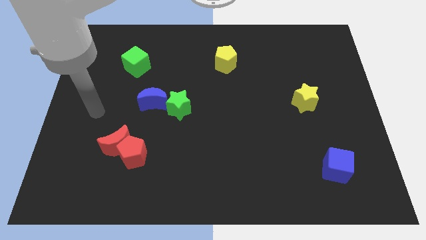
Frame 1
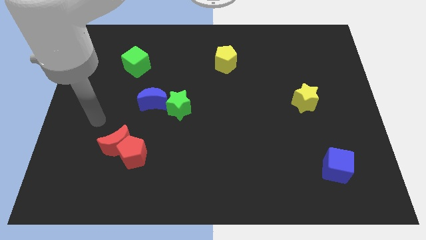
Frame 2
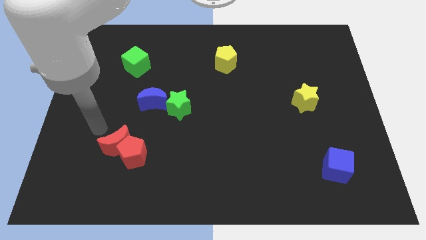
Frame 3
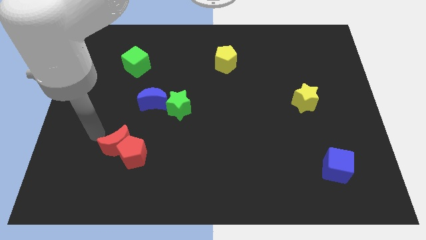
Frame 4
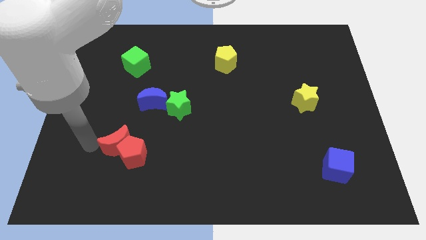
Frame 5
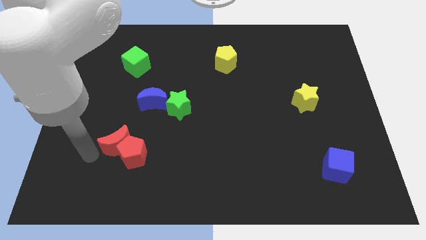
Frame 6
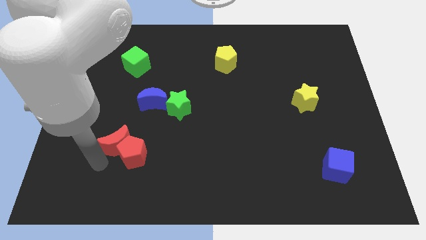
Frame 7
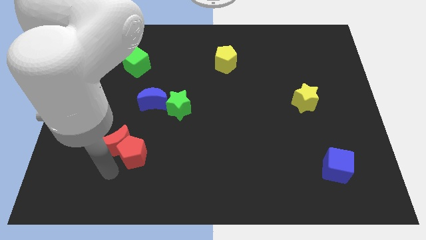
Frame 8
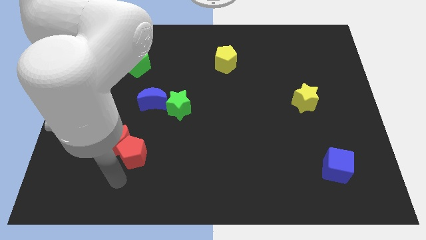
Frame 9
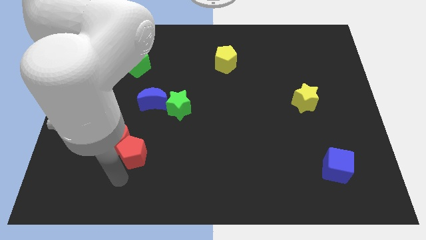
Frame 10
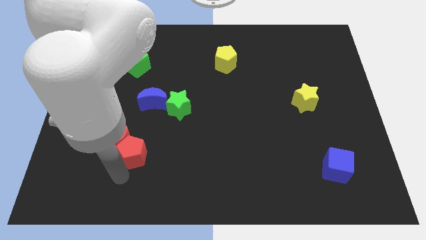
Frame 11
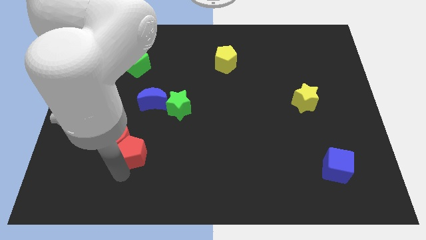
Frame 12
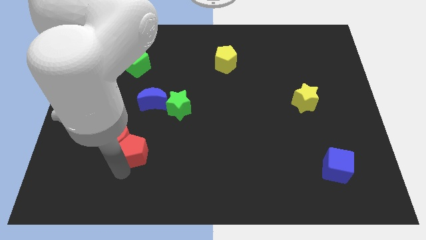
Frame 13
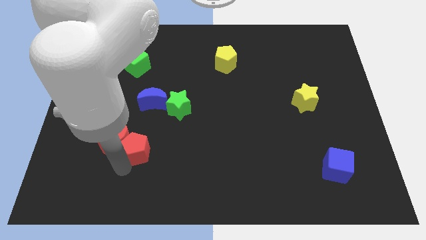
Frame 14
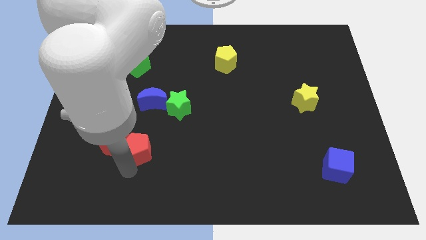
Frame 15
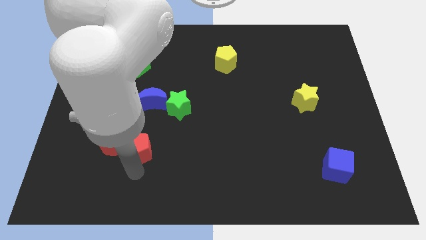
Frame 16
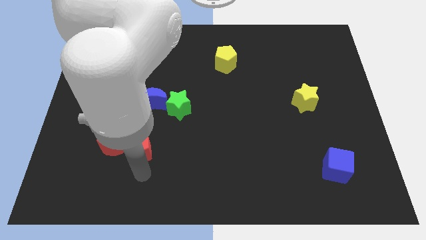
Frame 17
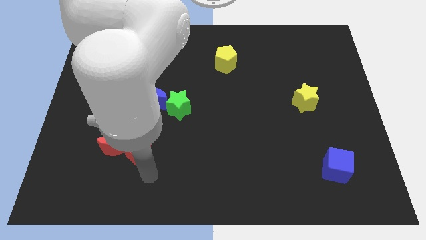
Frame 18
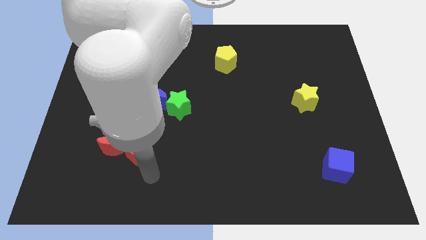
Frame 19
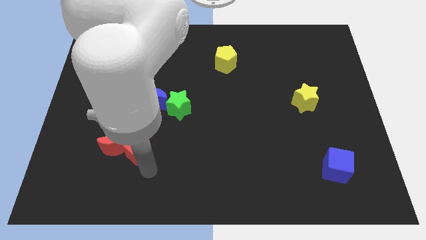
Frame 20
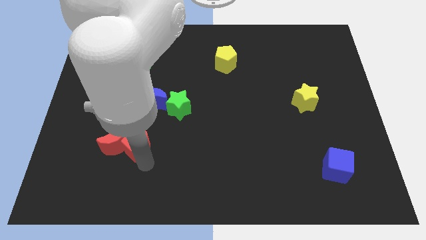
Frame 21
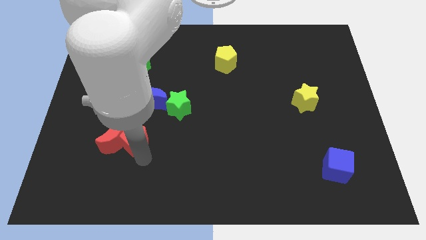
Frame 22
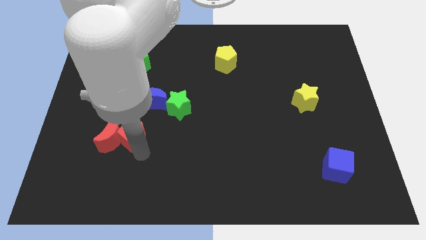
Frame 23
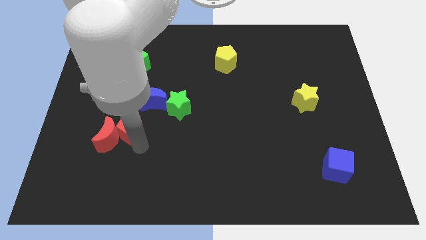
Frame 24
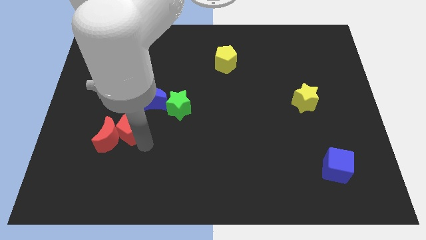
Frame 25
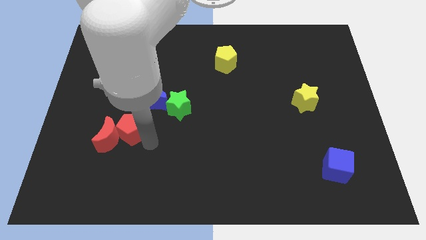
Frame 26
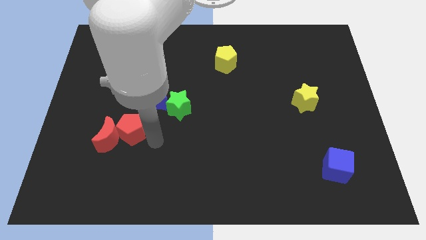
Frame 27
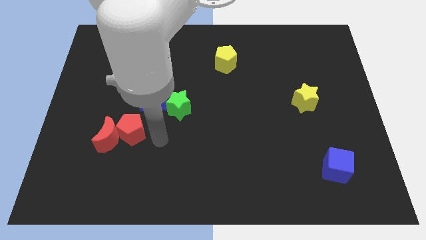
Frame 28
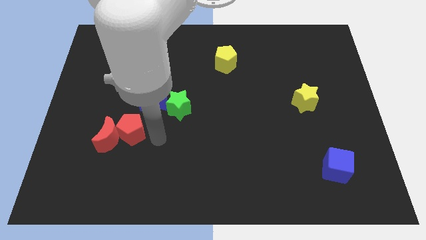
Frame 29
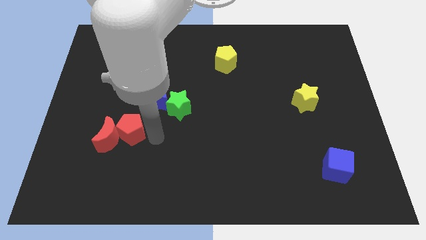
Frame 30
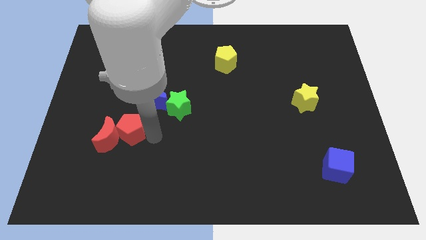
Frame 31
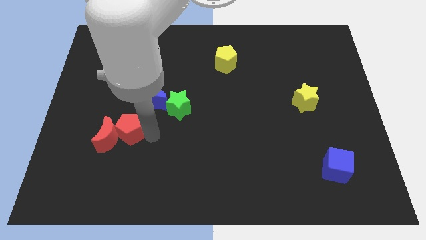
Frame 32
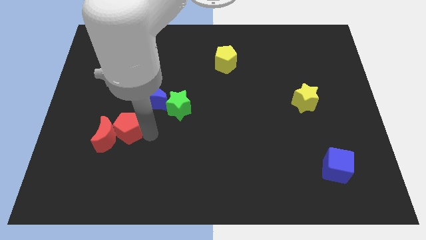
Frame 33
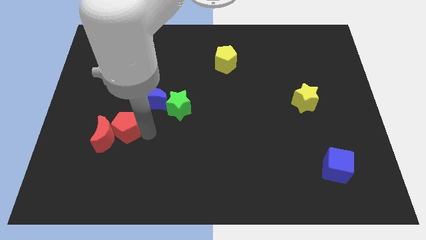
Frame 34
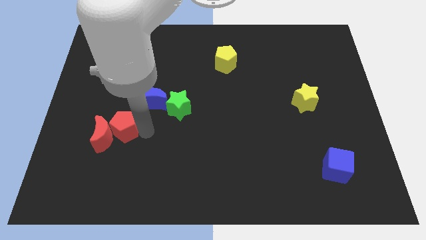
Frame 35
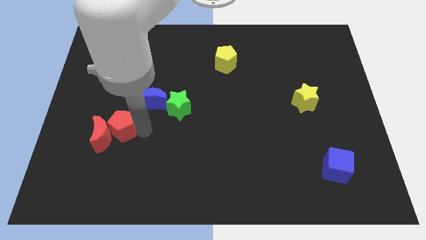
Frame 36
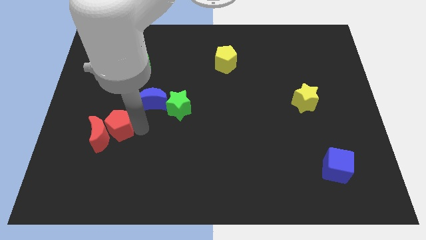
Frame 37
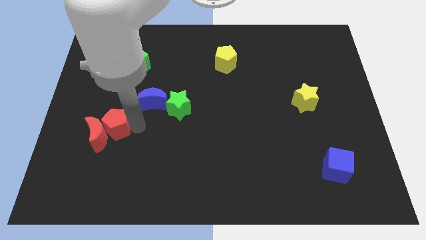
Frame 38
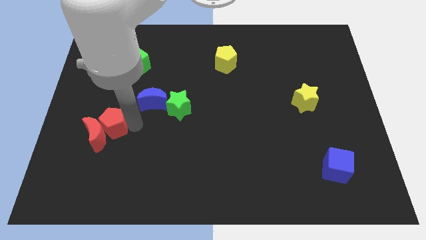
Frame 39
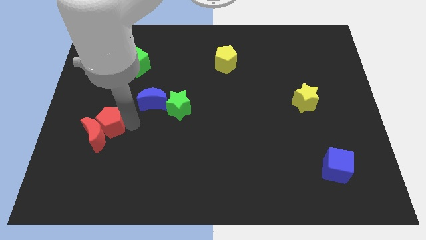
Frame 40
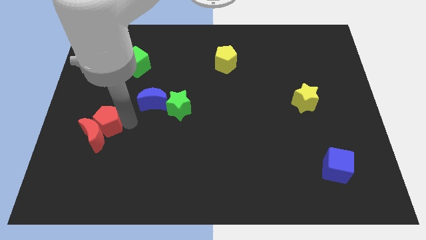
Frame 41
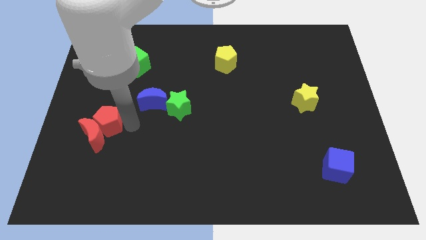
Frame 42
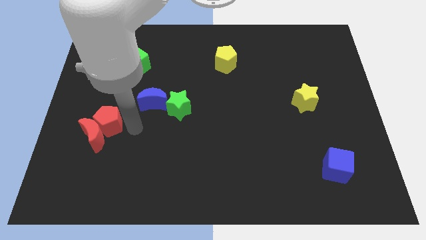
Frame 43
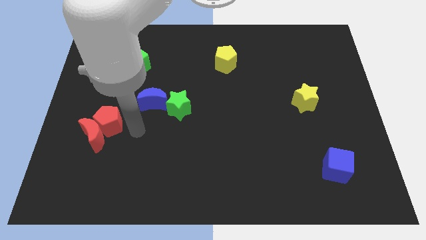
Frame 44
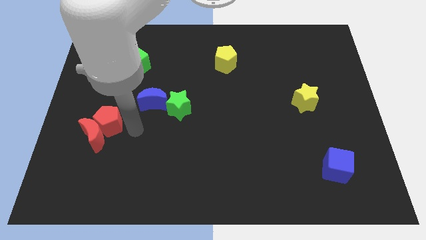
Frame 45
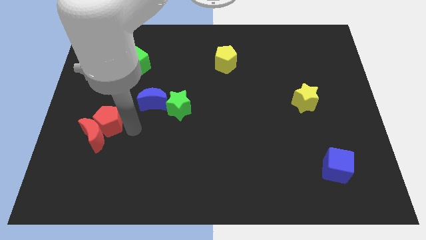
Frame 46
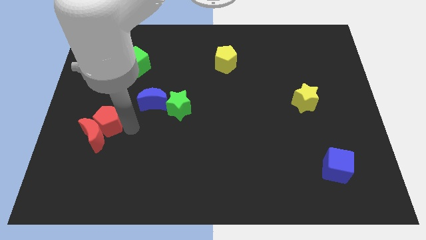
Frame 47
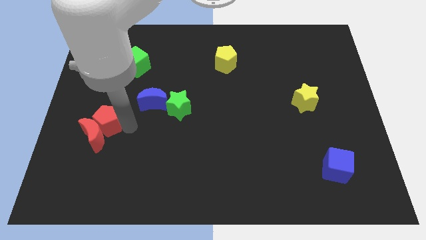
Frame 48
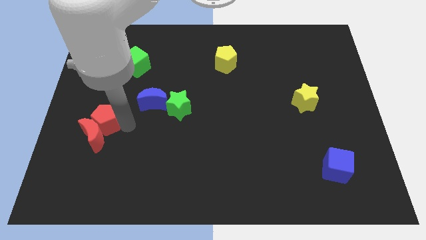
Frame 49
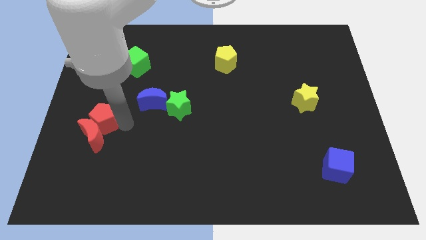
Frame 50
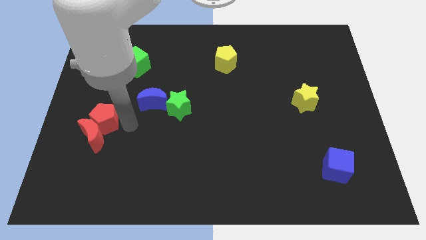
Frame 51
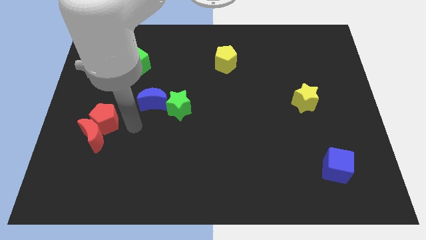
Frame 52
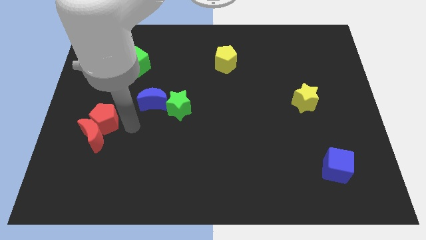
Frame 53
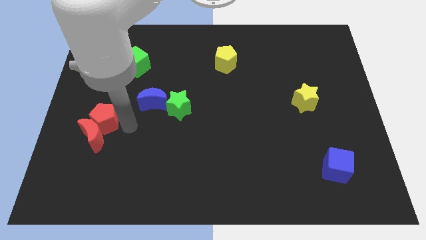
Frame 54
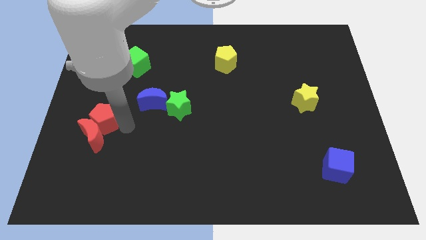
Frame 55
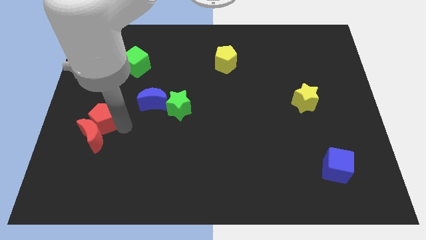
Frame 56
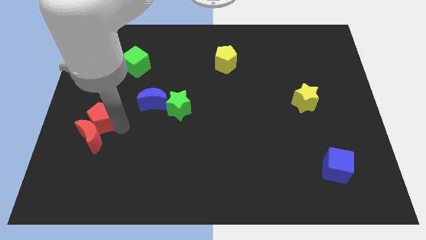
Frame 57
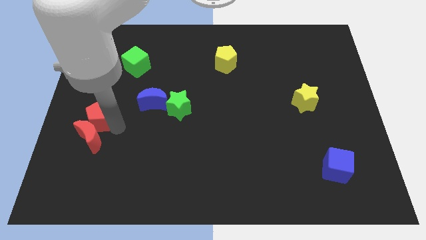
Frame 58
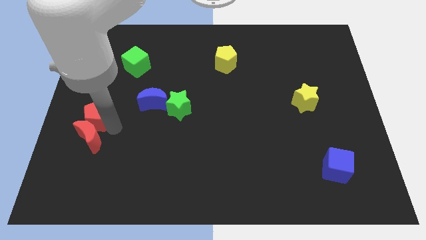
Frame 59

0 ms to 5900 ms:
slide the red pentagon to the left side of the board

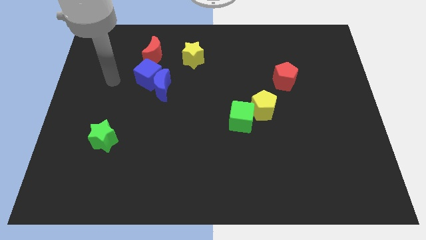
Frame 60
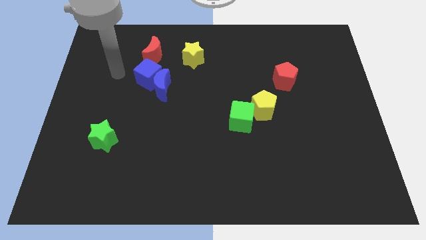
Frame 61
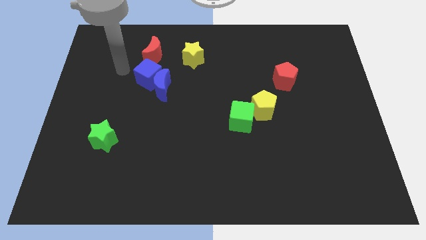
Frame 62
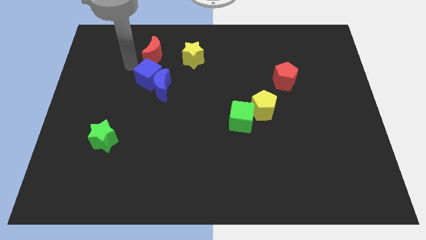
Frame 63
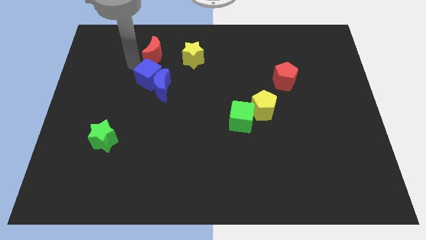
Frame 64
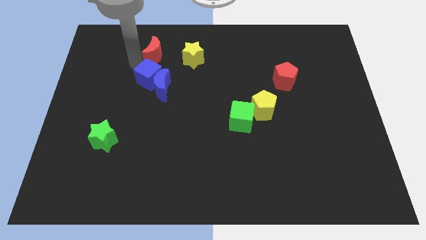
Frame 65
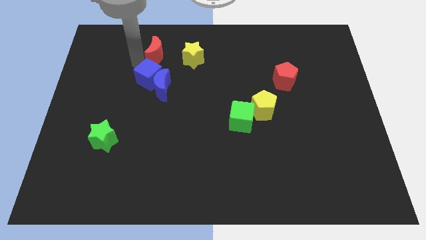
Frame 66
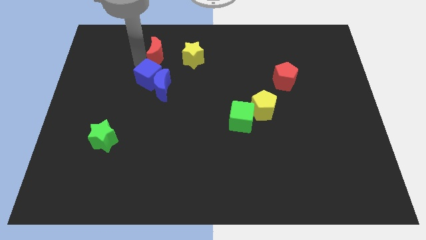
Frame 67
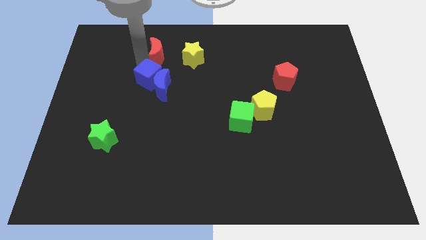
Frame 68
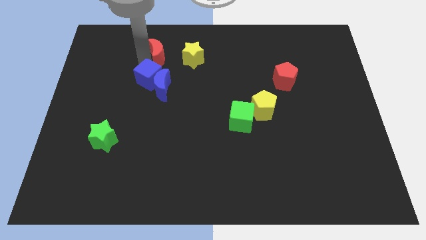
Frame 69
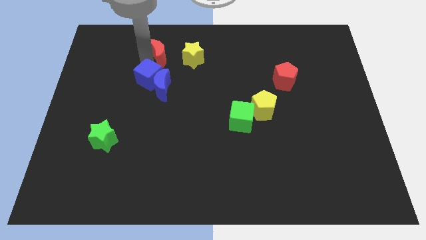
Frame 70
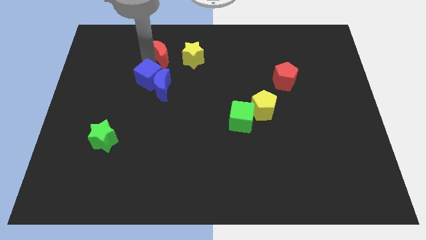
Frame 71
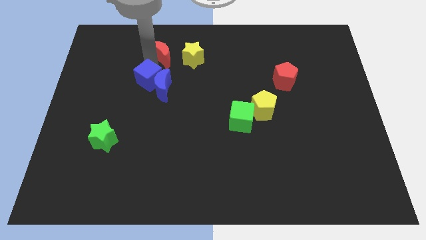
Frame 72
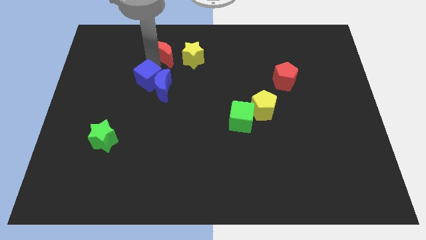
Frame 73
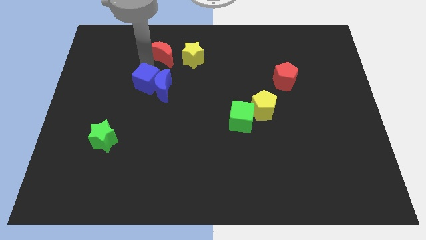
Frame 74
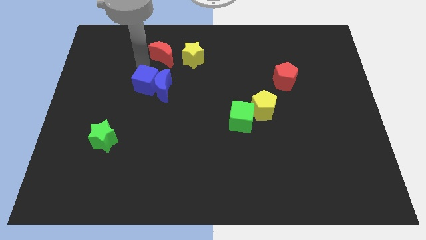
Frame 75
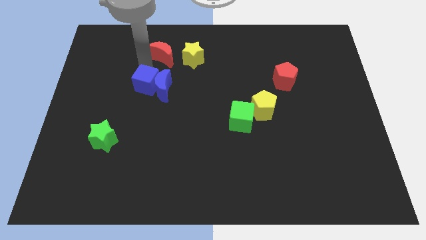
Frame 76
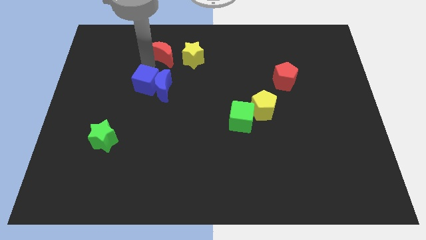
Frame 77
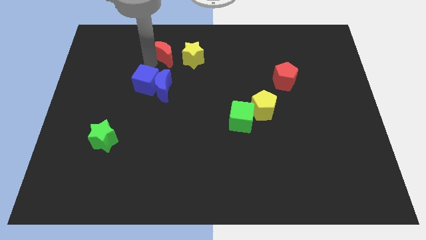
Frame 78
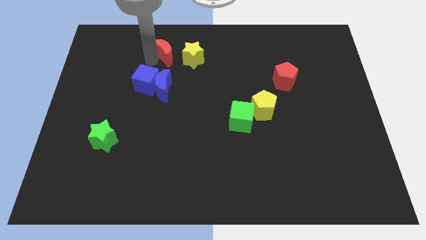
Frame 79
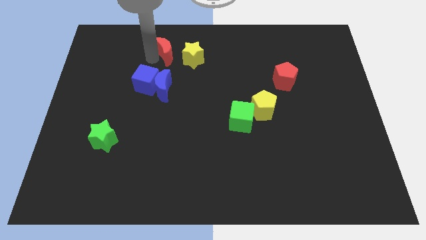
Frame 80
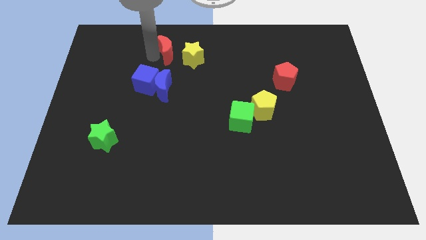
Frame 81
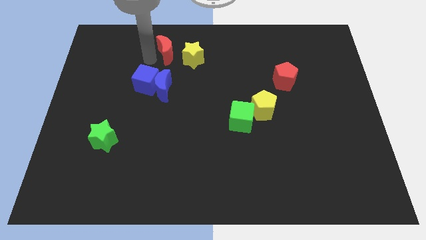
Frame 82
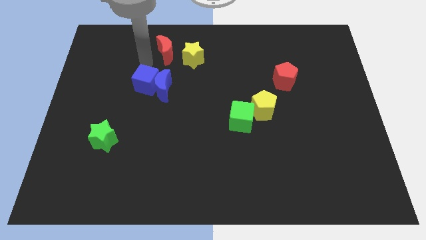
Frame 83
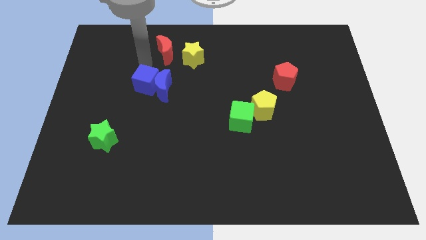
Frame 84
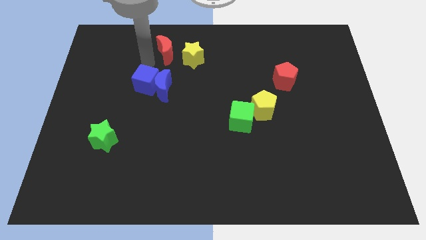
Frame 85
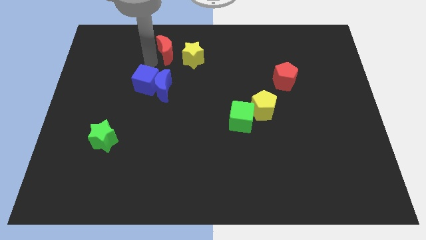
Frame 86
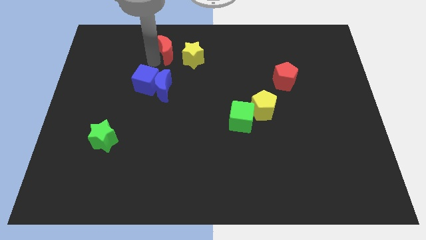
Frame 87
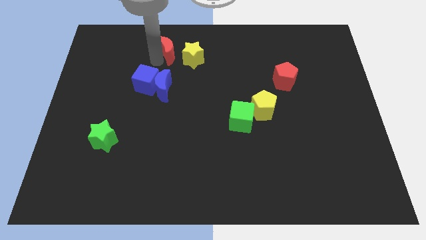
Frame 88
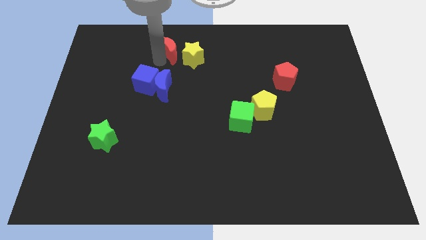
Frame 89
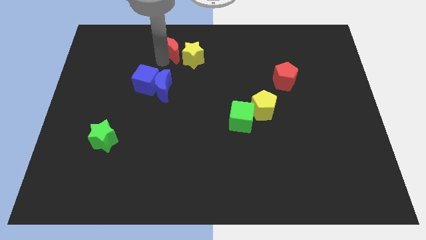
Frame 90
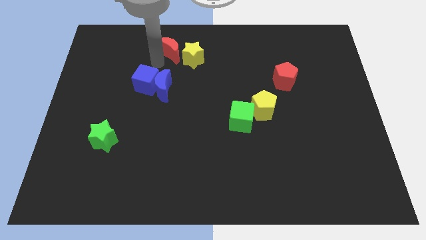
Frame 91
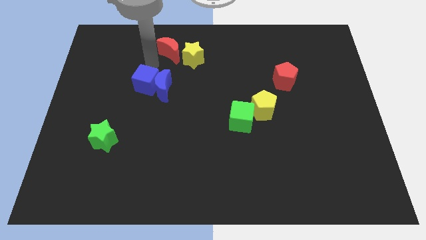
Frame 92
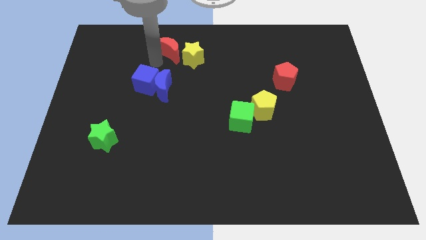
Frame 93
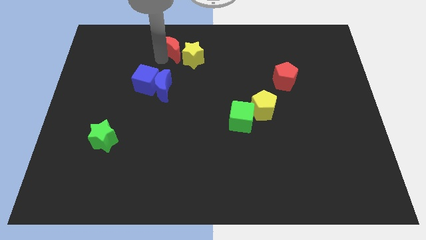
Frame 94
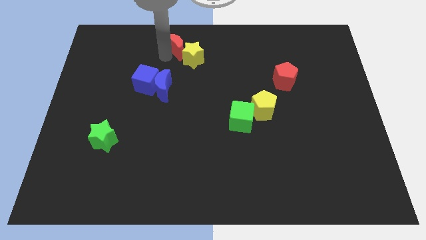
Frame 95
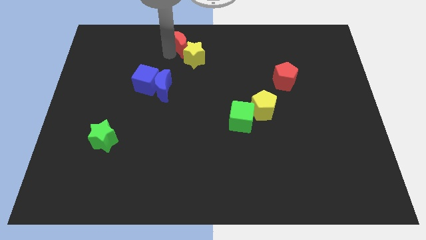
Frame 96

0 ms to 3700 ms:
slide the red moon to the top
